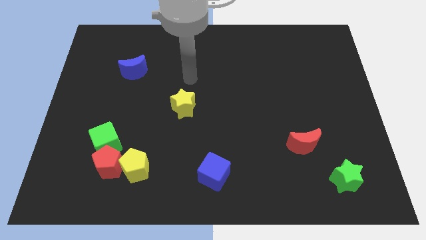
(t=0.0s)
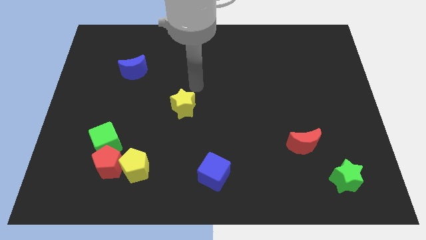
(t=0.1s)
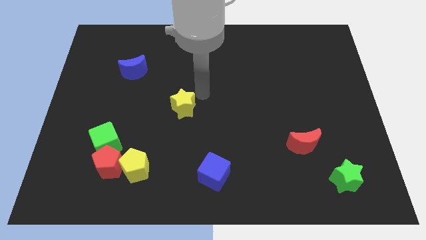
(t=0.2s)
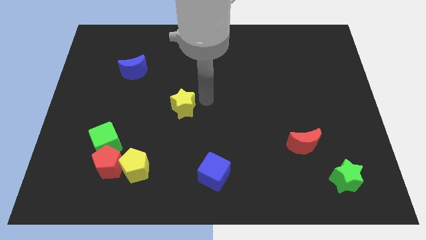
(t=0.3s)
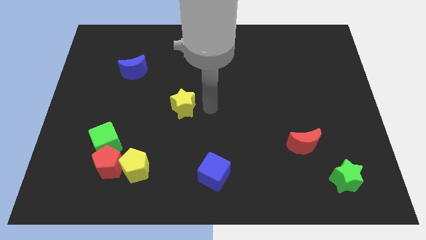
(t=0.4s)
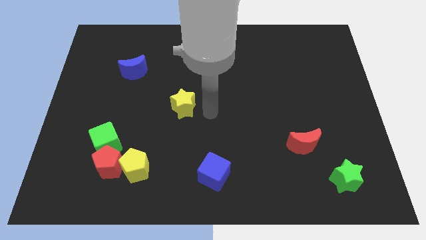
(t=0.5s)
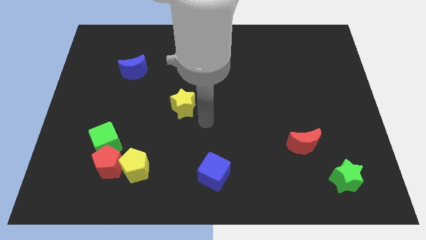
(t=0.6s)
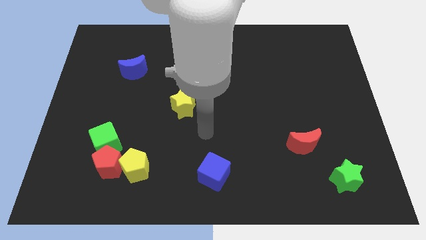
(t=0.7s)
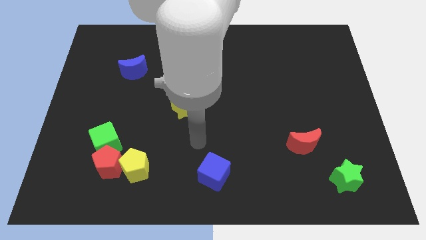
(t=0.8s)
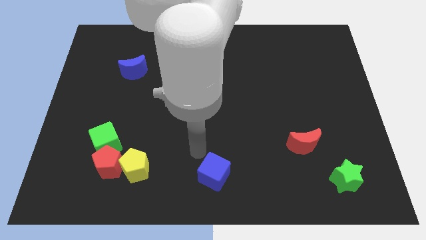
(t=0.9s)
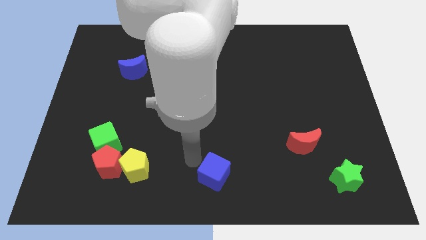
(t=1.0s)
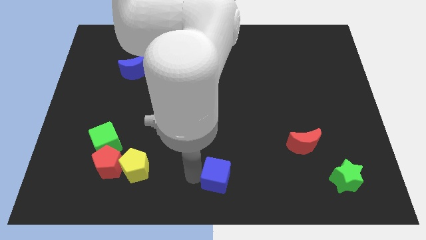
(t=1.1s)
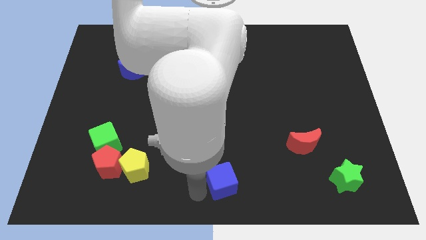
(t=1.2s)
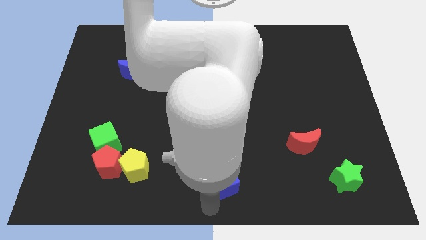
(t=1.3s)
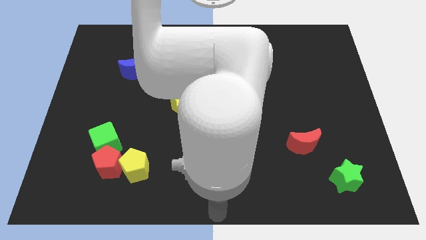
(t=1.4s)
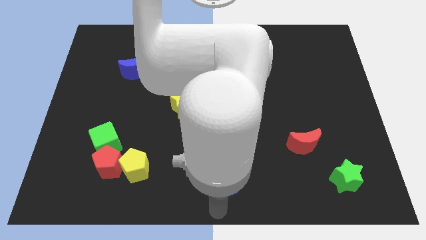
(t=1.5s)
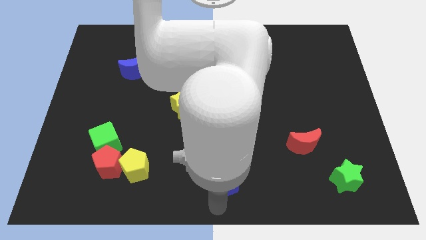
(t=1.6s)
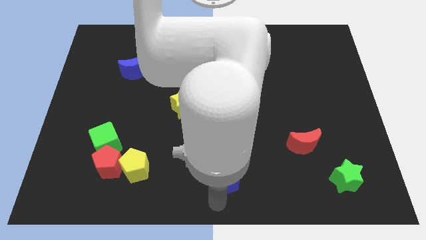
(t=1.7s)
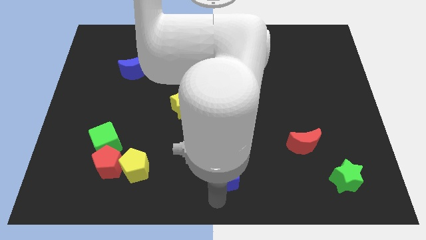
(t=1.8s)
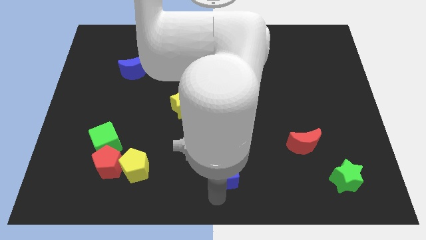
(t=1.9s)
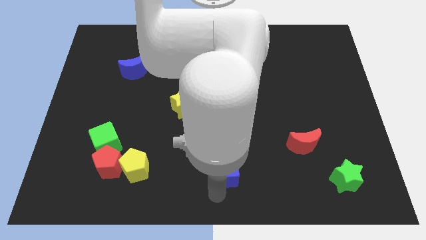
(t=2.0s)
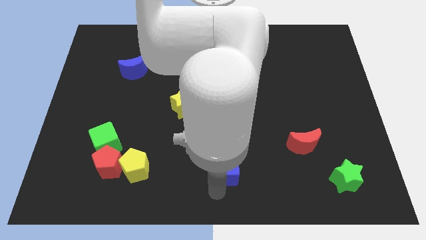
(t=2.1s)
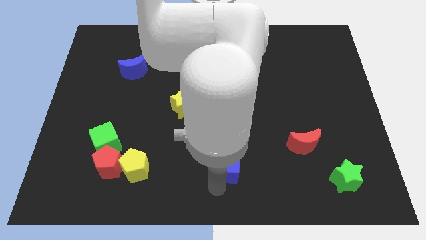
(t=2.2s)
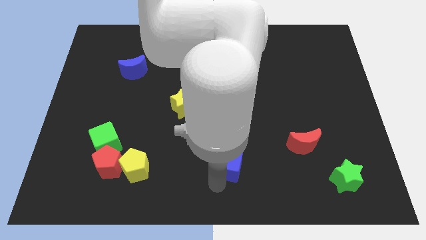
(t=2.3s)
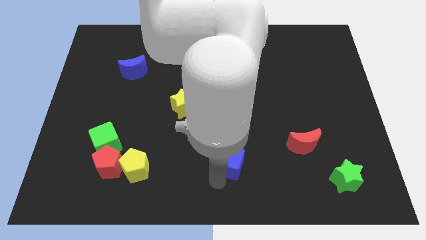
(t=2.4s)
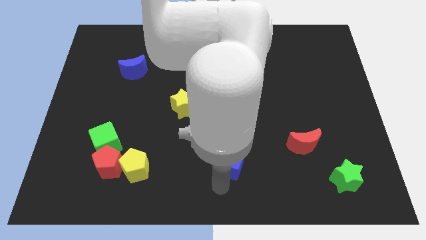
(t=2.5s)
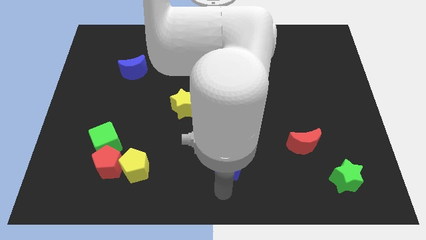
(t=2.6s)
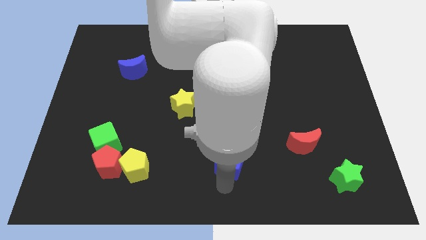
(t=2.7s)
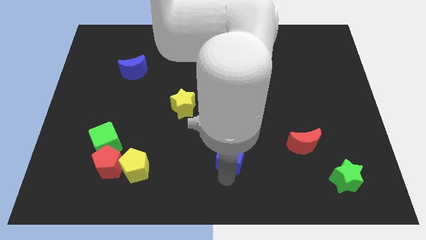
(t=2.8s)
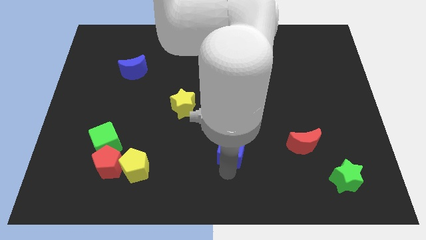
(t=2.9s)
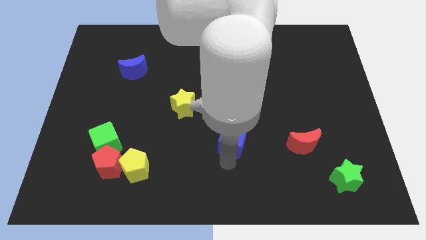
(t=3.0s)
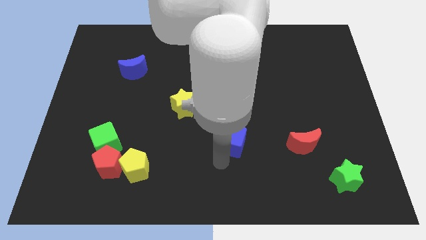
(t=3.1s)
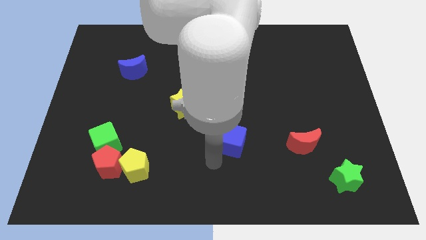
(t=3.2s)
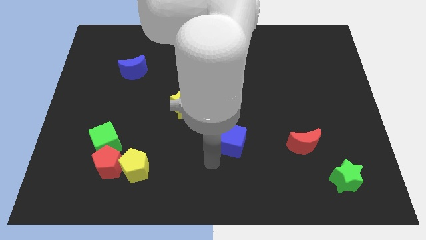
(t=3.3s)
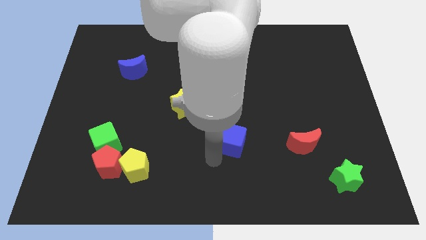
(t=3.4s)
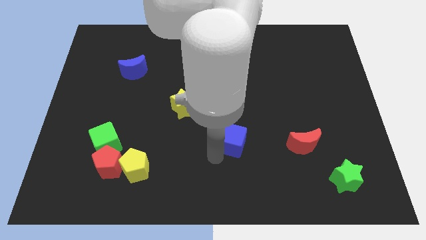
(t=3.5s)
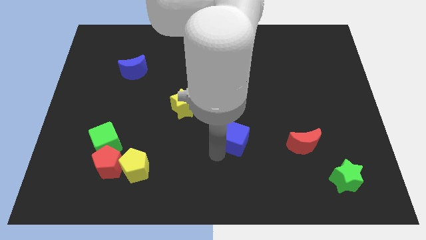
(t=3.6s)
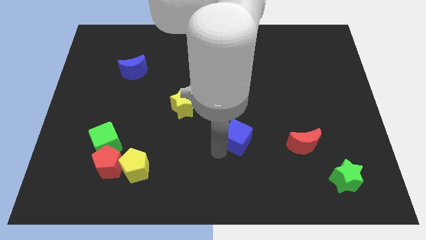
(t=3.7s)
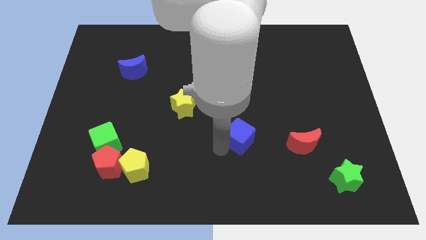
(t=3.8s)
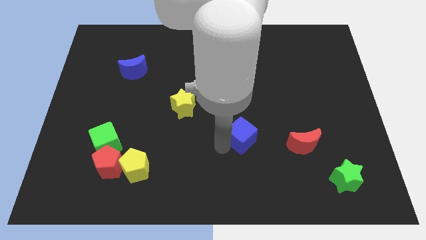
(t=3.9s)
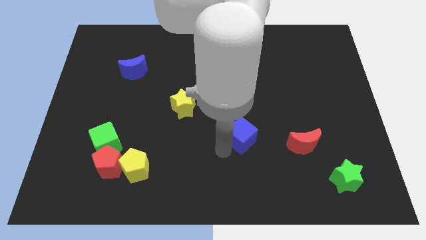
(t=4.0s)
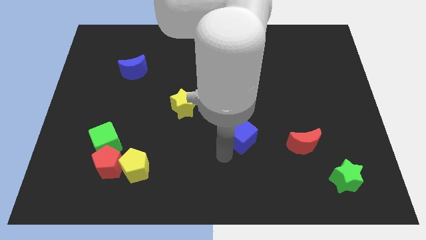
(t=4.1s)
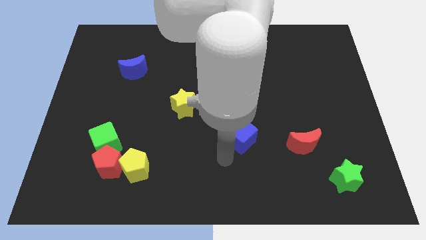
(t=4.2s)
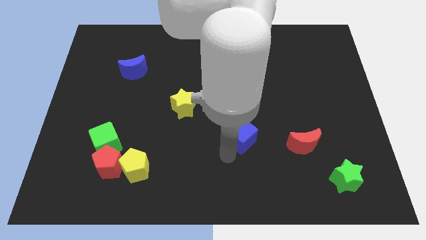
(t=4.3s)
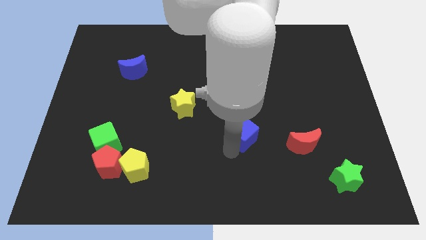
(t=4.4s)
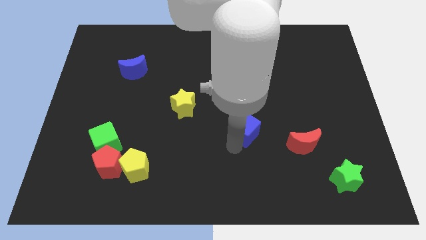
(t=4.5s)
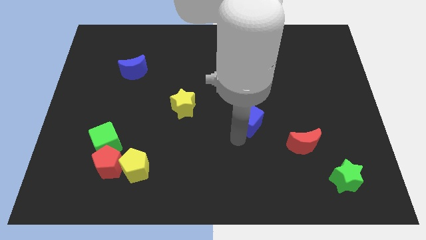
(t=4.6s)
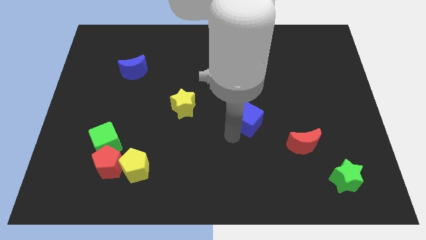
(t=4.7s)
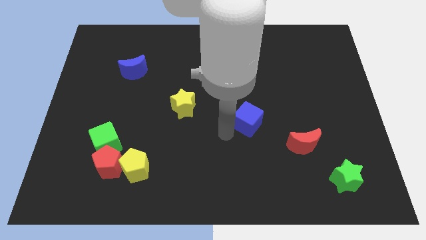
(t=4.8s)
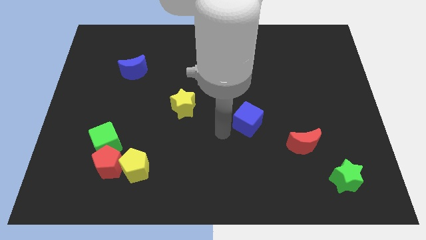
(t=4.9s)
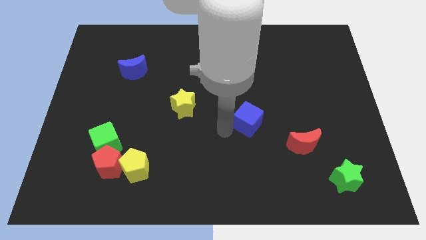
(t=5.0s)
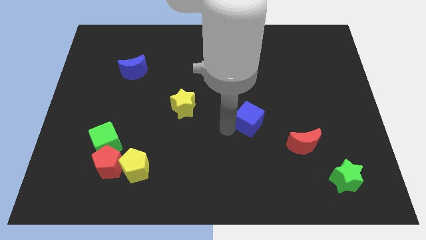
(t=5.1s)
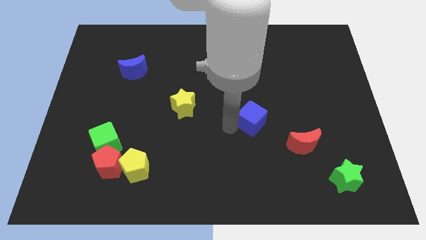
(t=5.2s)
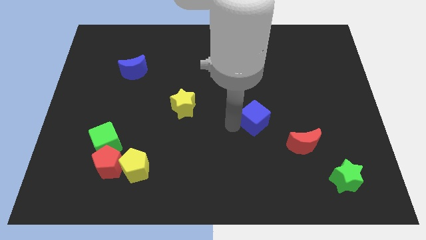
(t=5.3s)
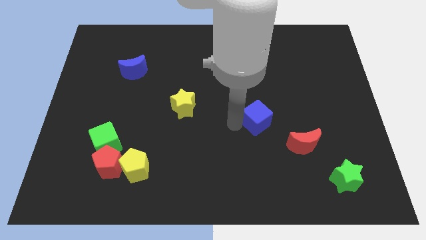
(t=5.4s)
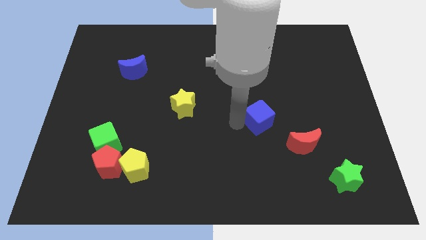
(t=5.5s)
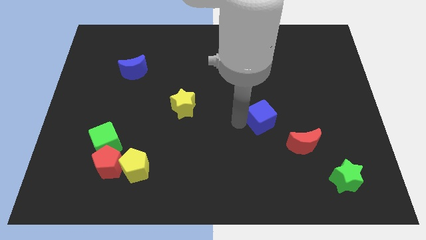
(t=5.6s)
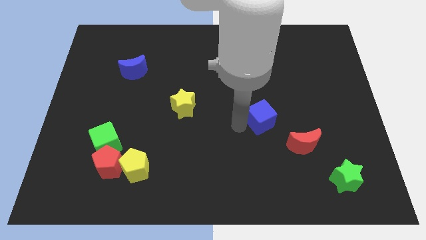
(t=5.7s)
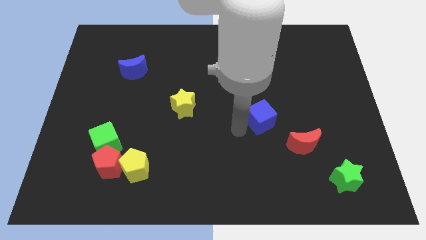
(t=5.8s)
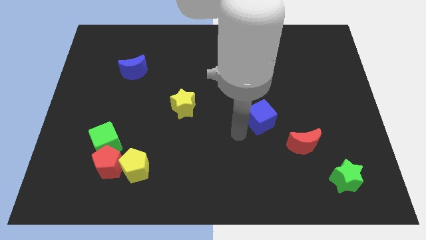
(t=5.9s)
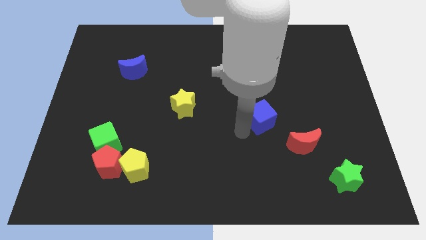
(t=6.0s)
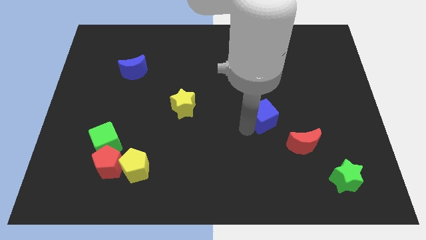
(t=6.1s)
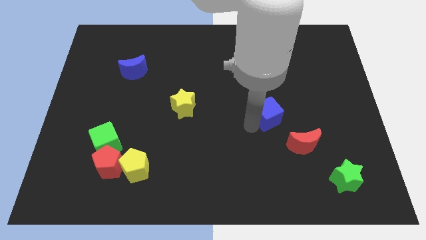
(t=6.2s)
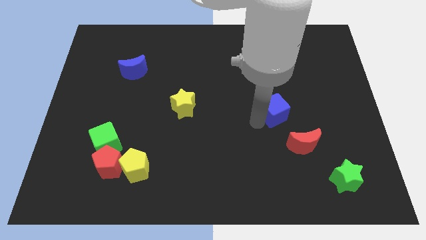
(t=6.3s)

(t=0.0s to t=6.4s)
move the blue cube upwards and then to the right

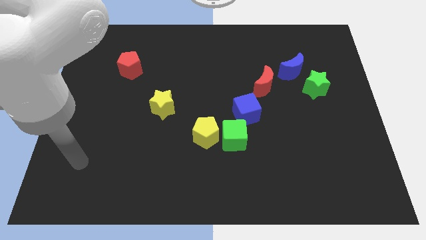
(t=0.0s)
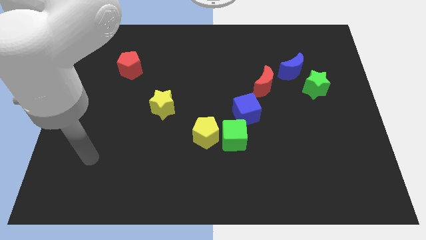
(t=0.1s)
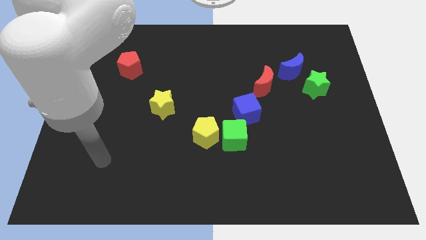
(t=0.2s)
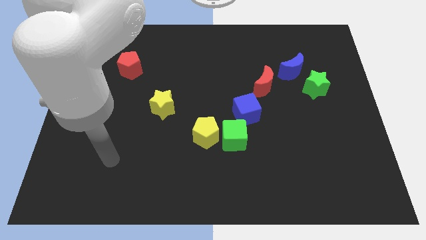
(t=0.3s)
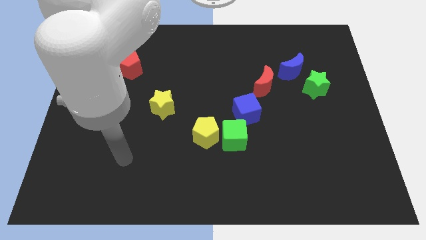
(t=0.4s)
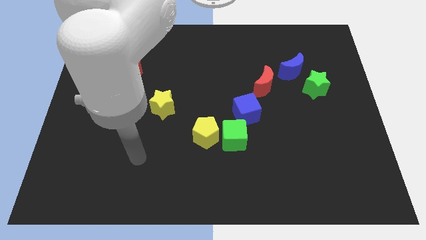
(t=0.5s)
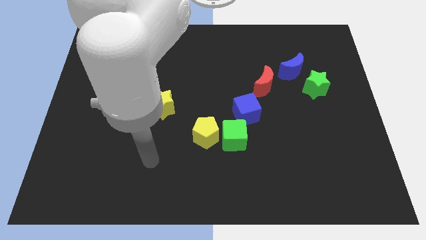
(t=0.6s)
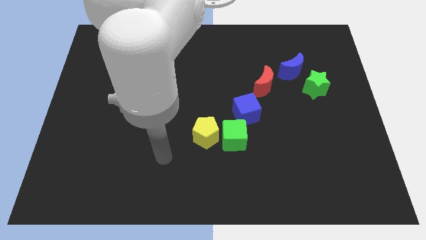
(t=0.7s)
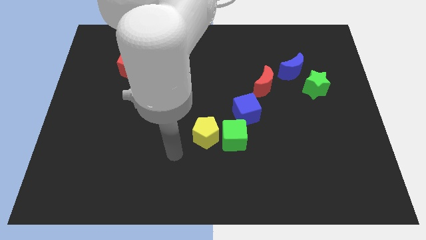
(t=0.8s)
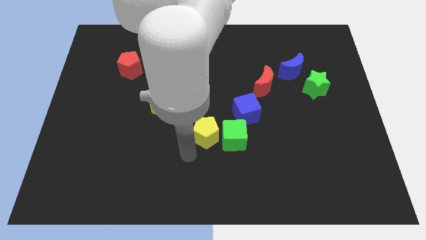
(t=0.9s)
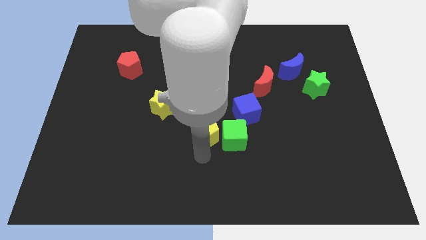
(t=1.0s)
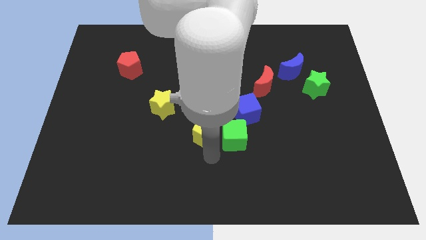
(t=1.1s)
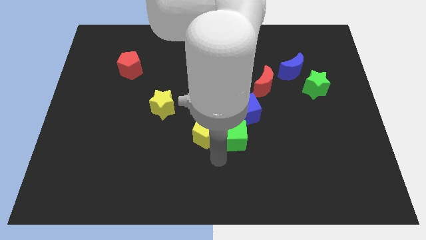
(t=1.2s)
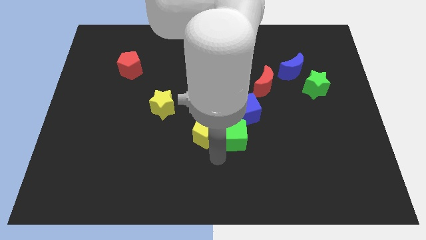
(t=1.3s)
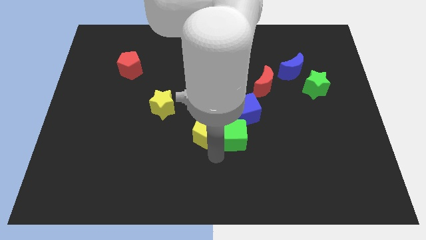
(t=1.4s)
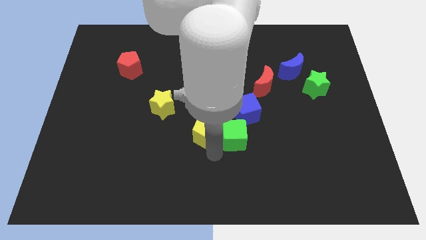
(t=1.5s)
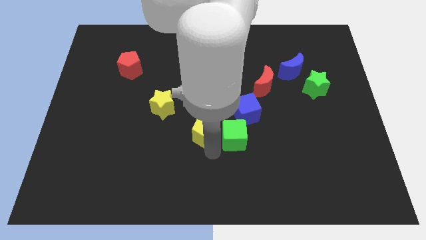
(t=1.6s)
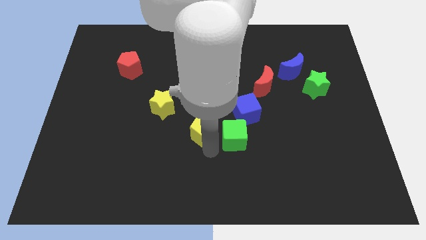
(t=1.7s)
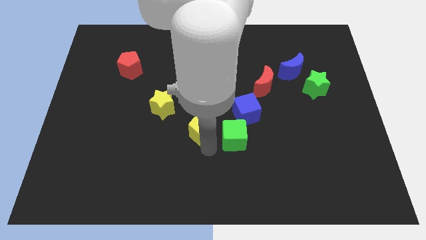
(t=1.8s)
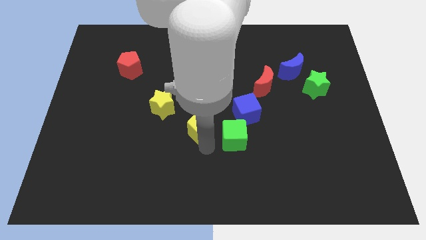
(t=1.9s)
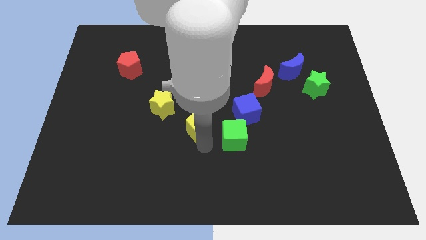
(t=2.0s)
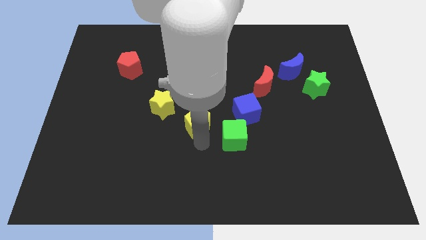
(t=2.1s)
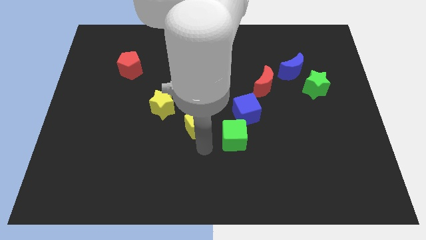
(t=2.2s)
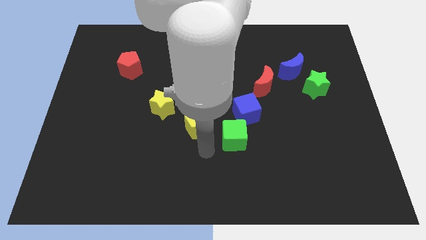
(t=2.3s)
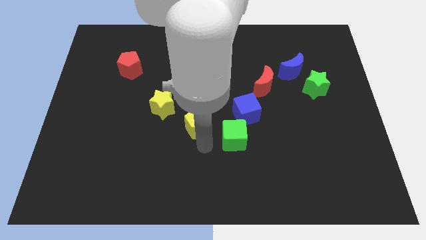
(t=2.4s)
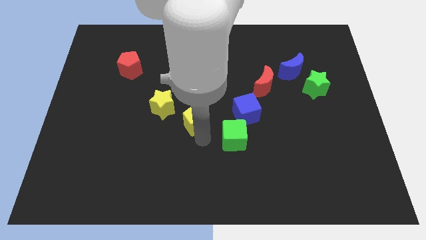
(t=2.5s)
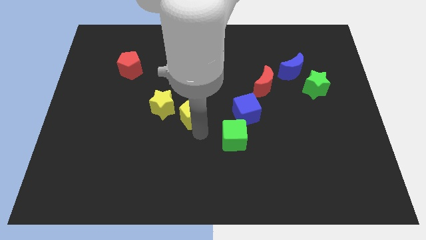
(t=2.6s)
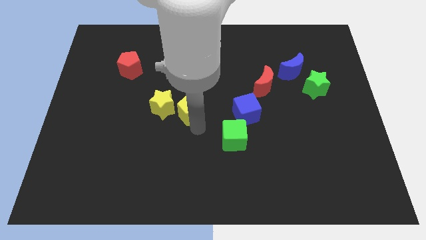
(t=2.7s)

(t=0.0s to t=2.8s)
move the yellow pentagon a little up and left
